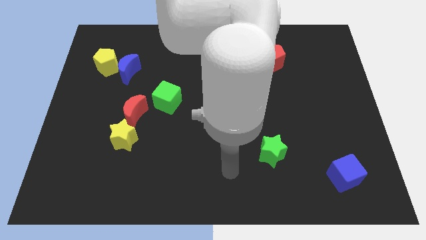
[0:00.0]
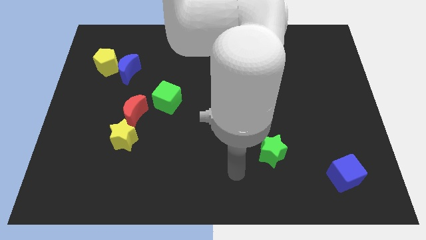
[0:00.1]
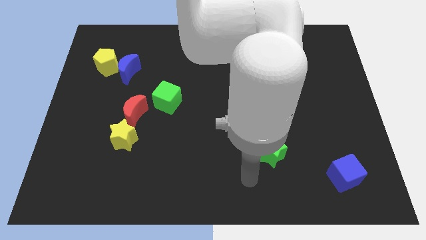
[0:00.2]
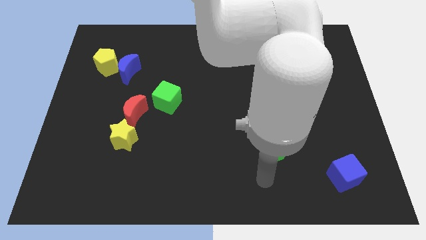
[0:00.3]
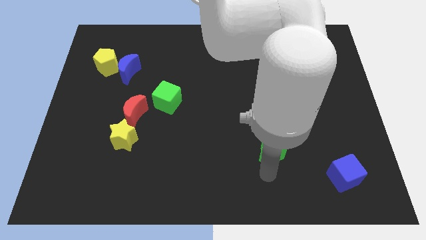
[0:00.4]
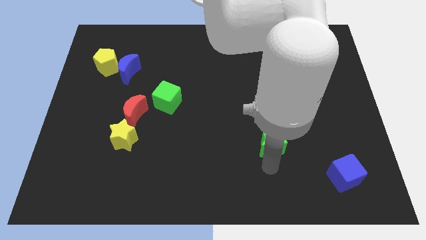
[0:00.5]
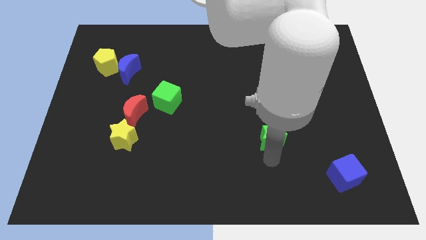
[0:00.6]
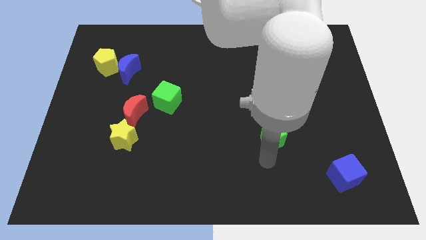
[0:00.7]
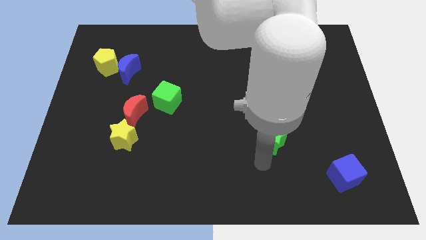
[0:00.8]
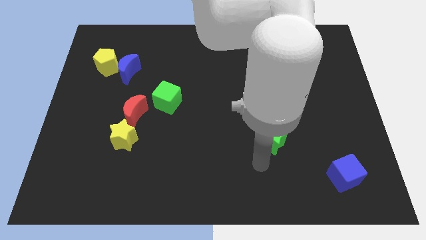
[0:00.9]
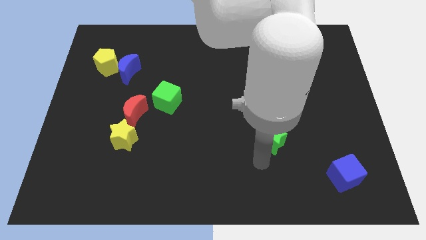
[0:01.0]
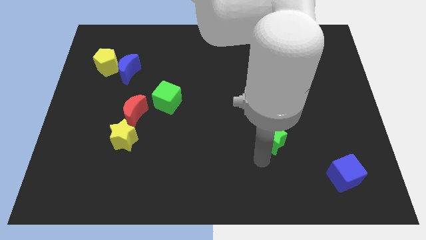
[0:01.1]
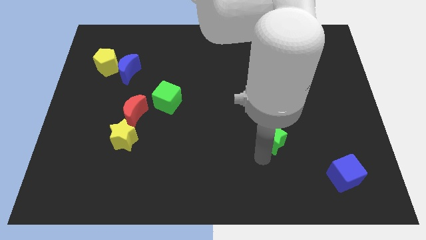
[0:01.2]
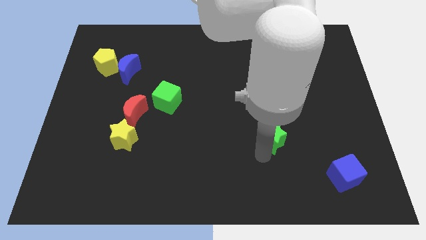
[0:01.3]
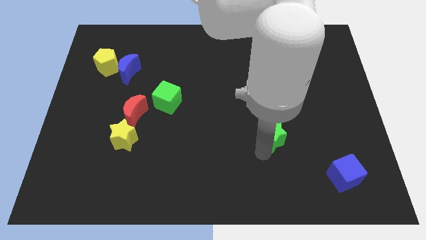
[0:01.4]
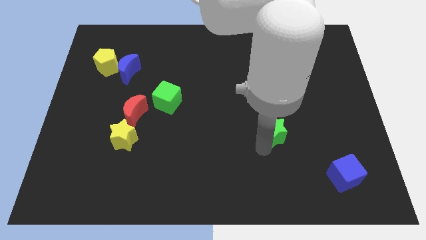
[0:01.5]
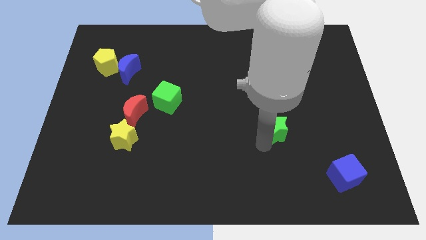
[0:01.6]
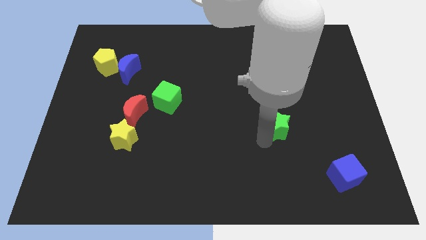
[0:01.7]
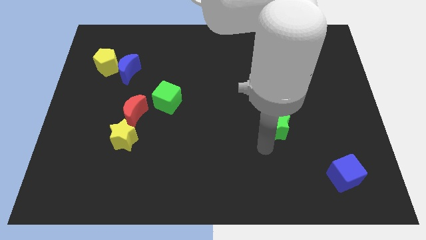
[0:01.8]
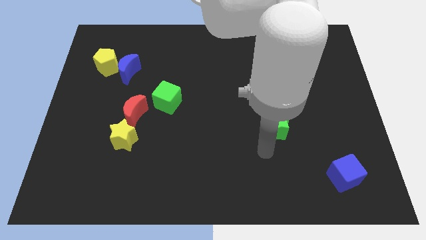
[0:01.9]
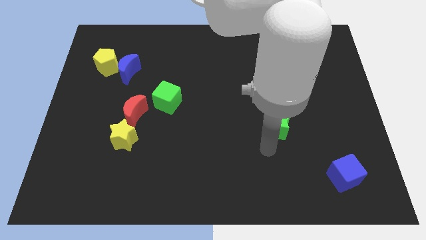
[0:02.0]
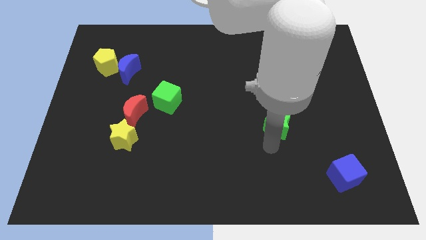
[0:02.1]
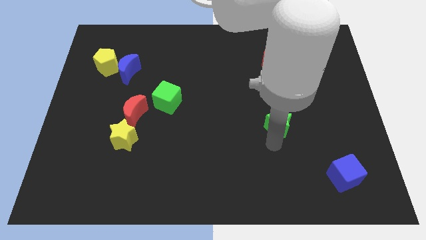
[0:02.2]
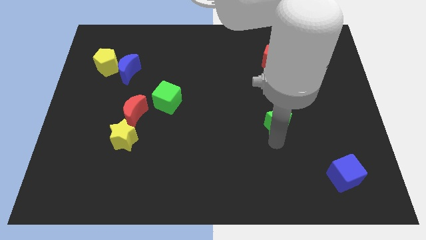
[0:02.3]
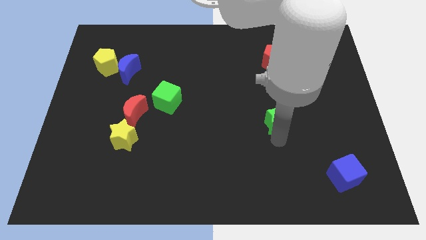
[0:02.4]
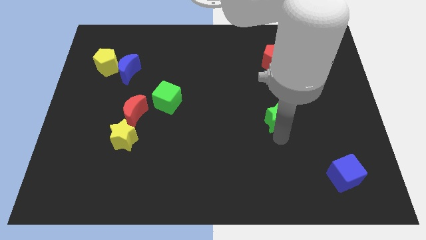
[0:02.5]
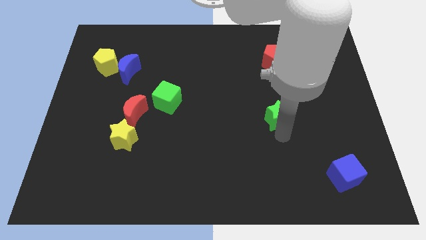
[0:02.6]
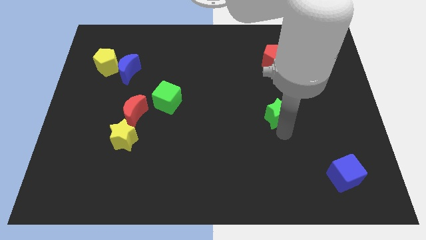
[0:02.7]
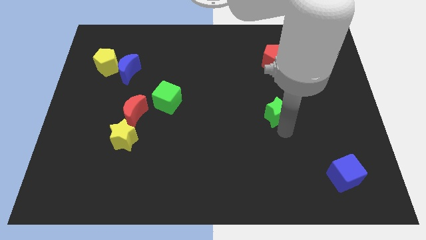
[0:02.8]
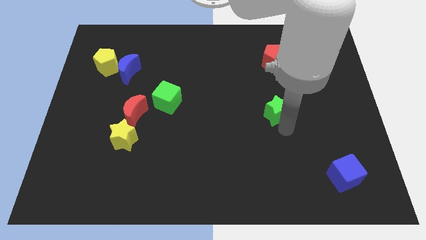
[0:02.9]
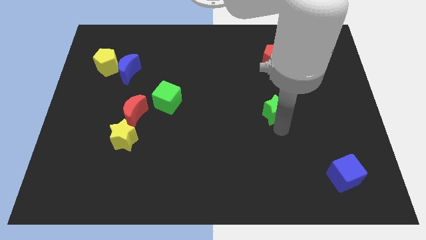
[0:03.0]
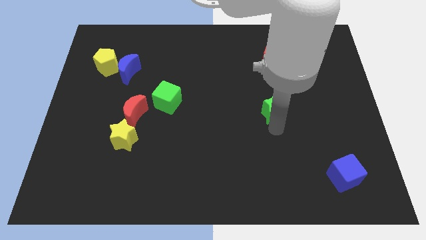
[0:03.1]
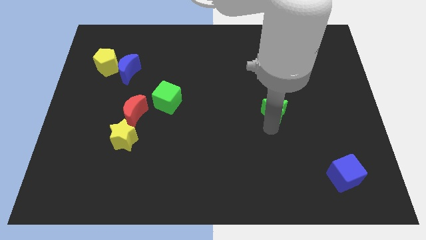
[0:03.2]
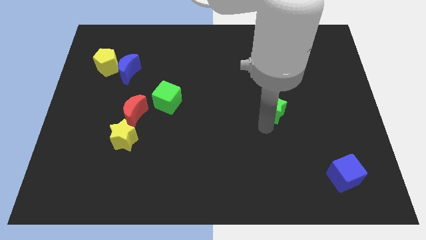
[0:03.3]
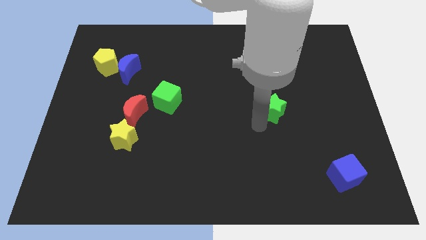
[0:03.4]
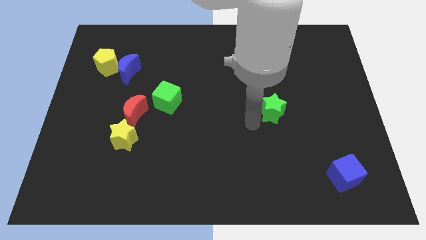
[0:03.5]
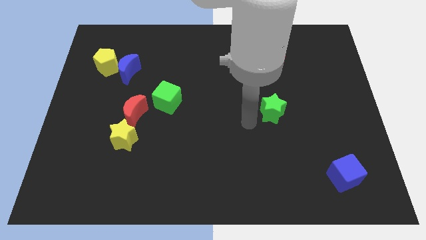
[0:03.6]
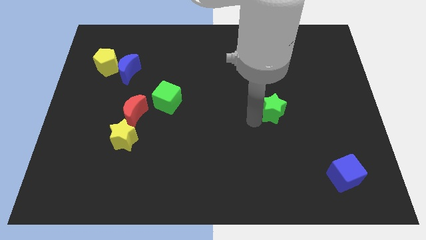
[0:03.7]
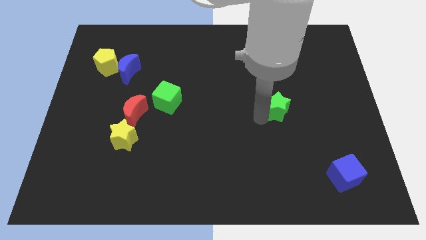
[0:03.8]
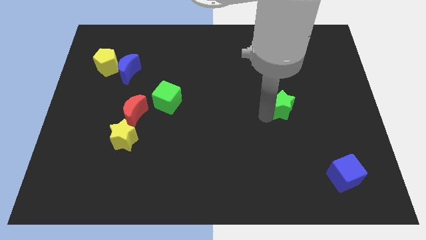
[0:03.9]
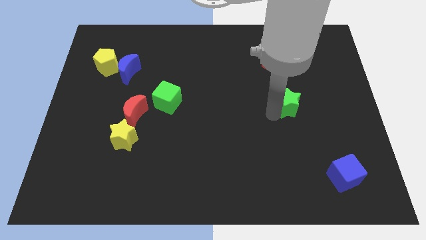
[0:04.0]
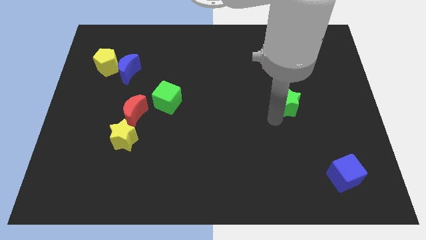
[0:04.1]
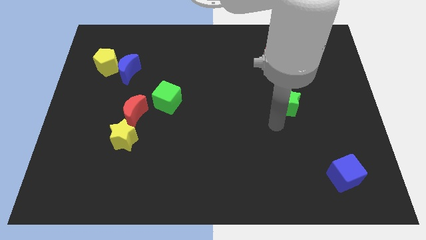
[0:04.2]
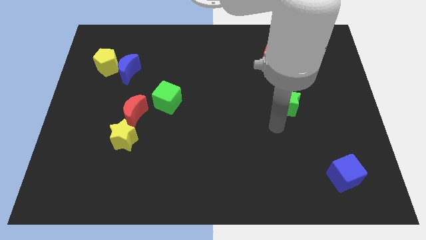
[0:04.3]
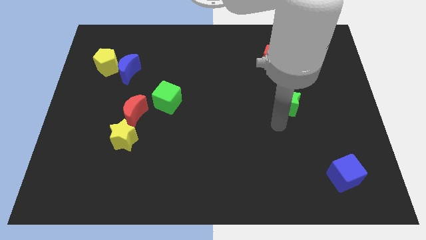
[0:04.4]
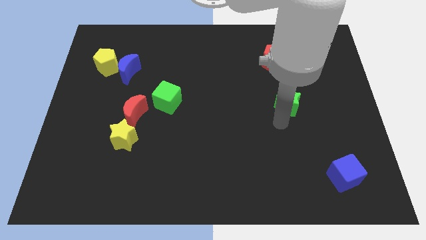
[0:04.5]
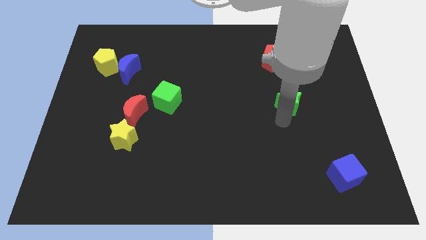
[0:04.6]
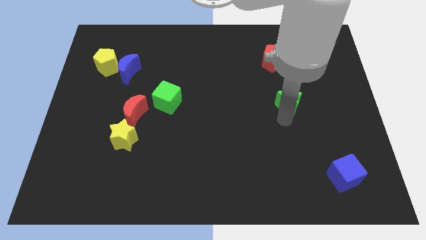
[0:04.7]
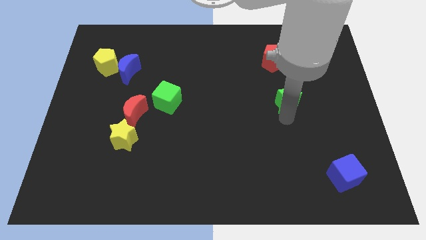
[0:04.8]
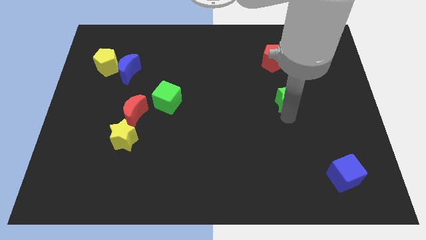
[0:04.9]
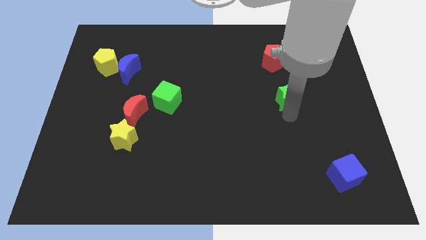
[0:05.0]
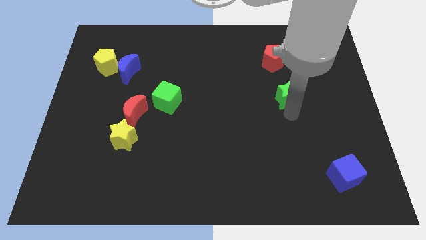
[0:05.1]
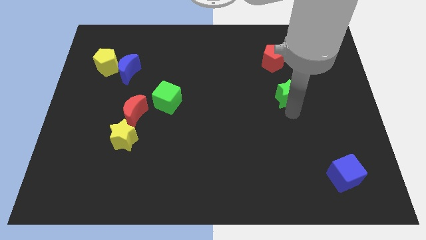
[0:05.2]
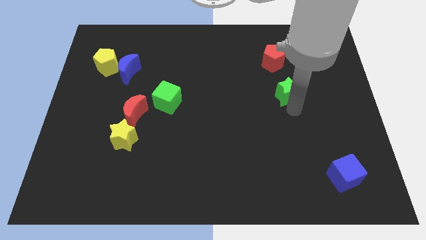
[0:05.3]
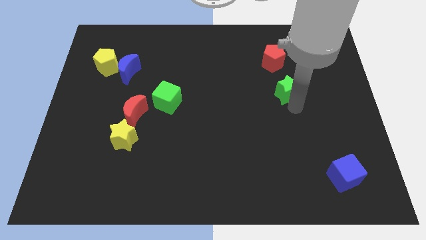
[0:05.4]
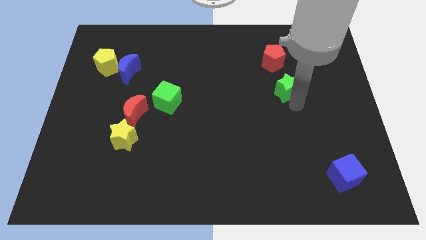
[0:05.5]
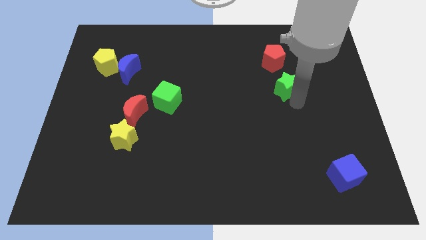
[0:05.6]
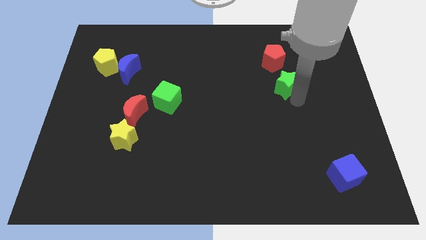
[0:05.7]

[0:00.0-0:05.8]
put the green star to the bottom right of the red pentagon

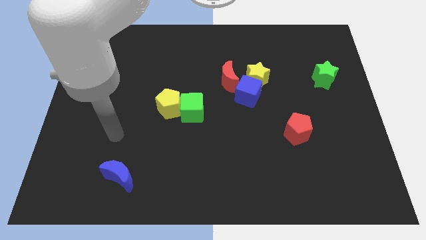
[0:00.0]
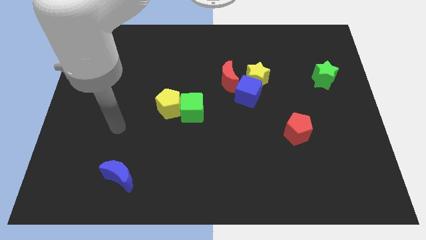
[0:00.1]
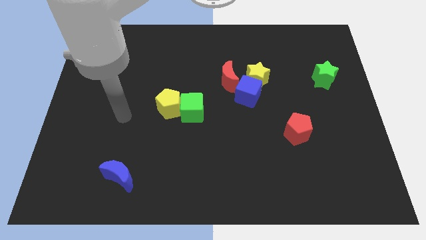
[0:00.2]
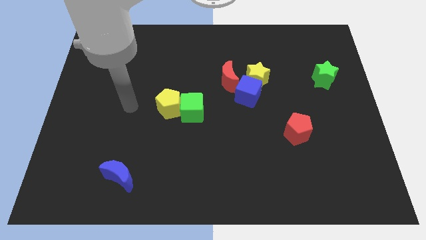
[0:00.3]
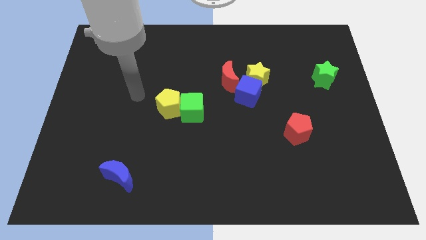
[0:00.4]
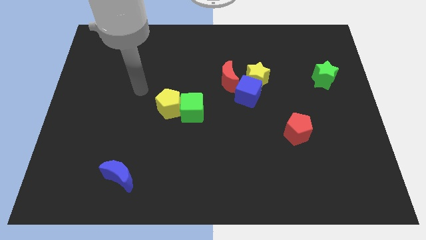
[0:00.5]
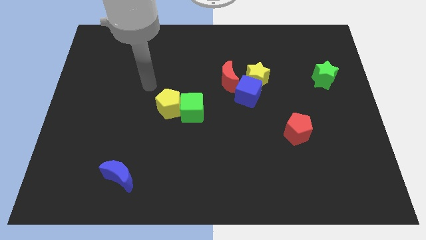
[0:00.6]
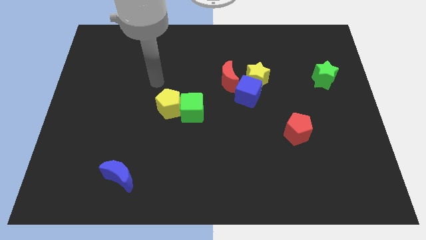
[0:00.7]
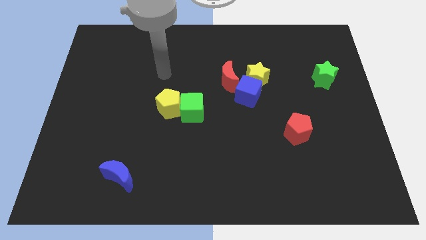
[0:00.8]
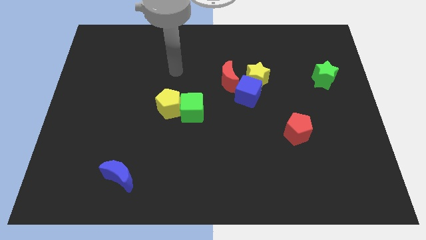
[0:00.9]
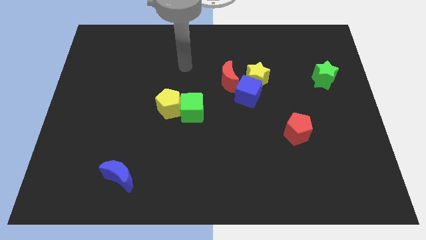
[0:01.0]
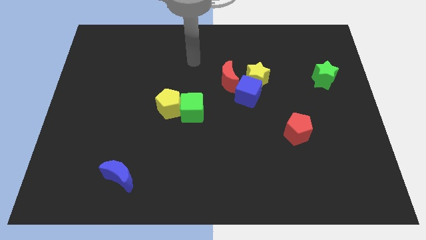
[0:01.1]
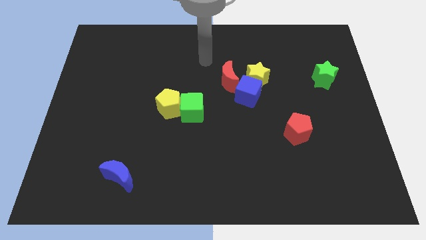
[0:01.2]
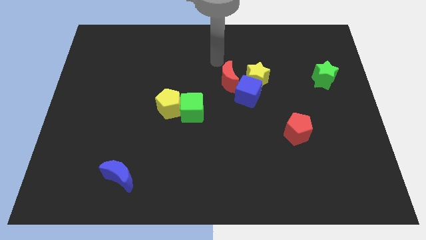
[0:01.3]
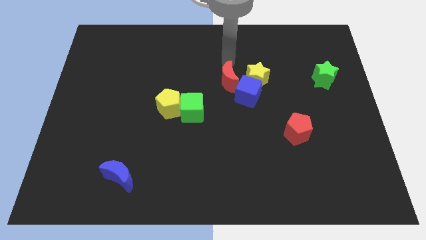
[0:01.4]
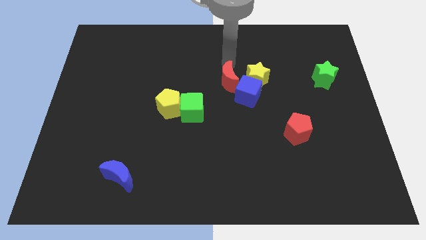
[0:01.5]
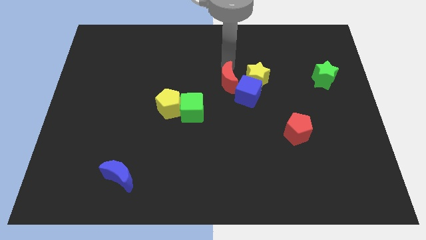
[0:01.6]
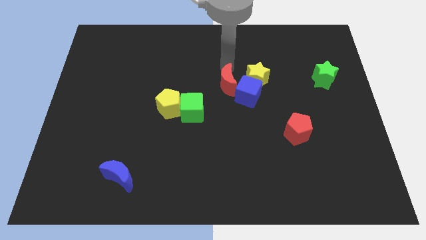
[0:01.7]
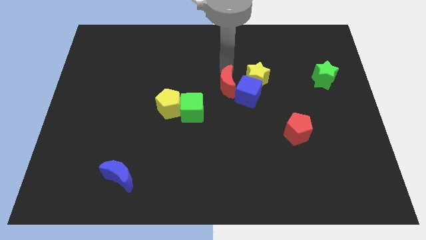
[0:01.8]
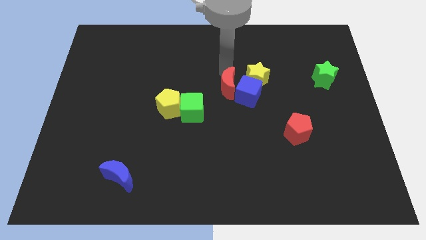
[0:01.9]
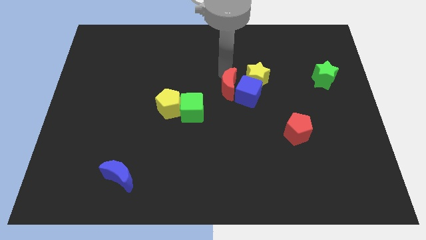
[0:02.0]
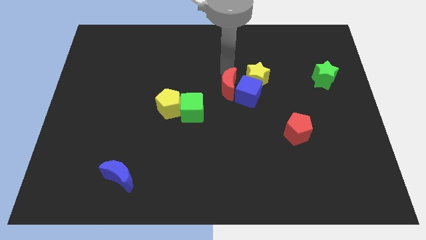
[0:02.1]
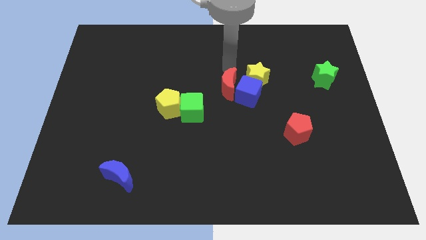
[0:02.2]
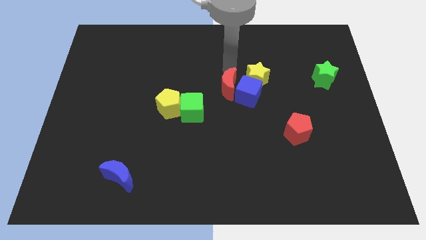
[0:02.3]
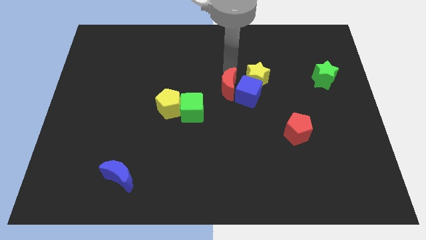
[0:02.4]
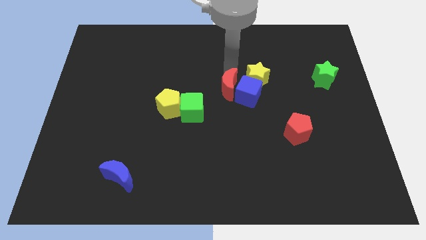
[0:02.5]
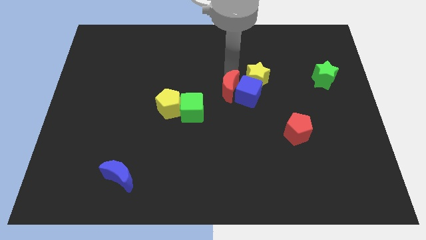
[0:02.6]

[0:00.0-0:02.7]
slide the red moon to the bottom left side of the blue cube
